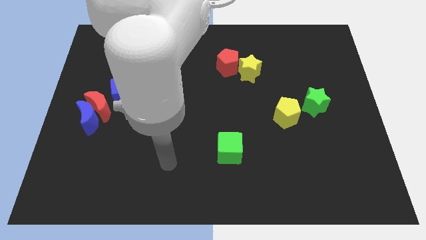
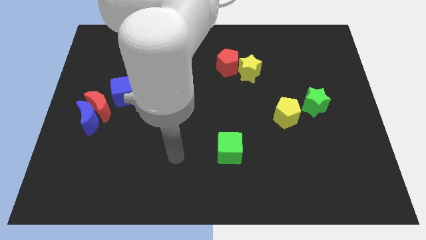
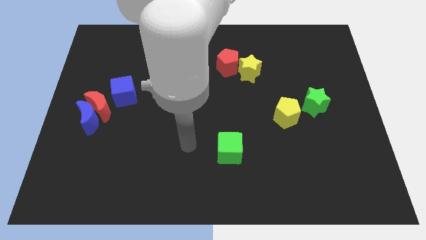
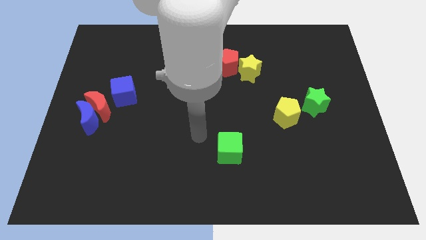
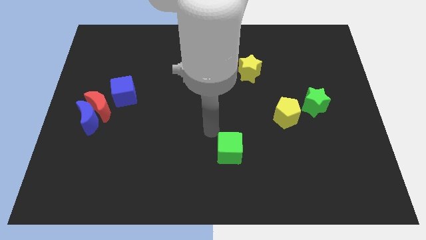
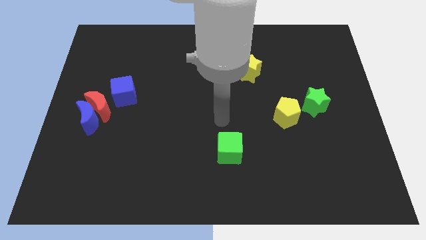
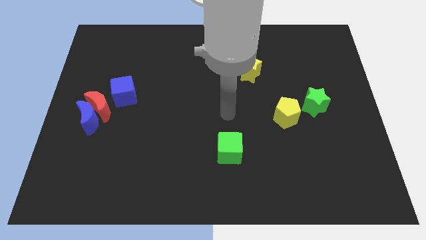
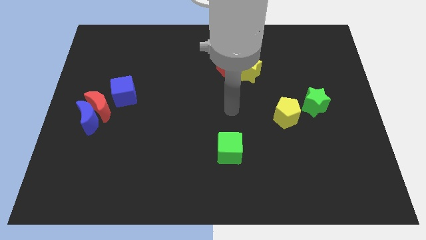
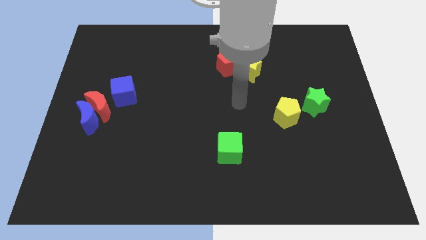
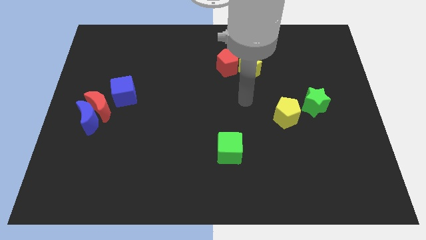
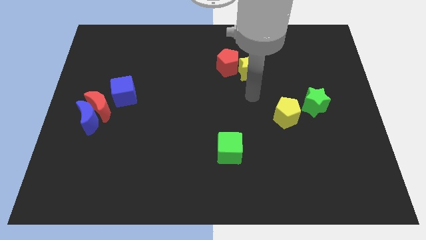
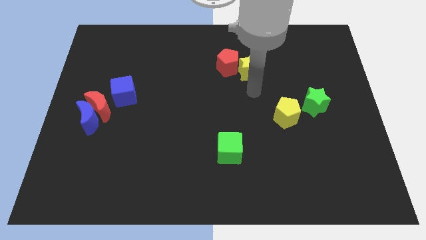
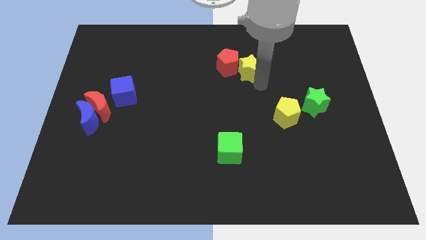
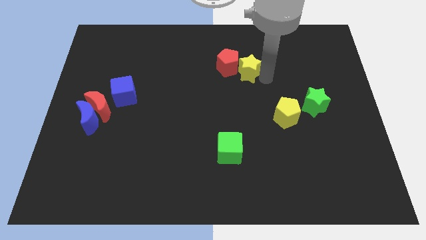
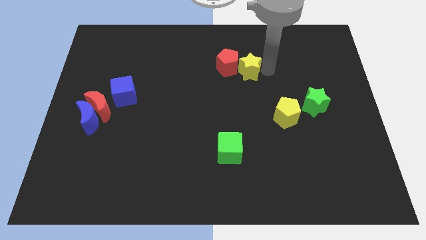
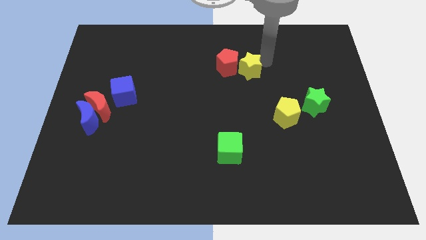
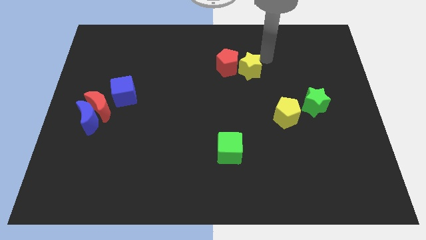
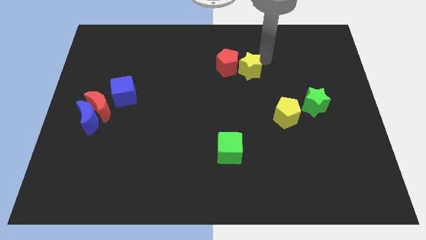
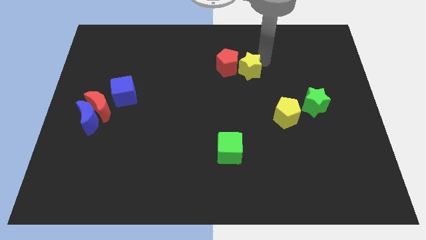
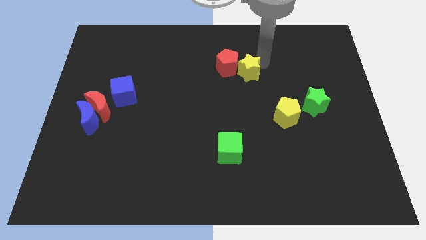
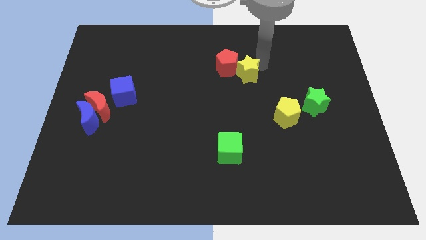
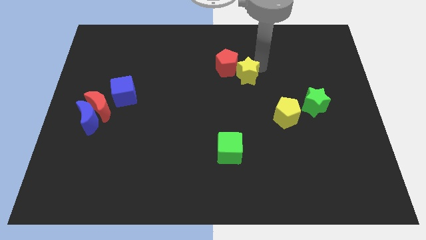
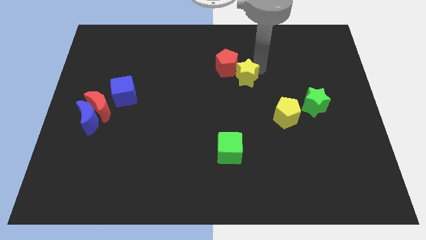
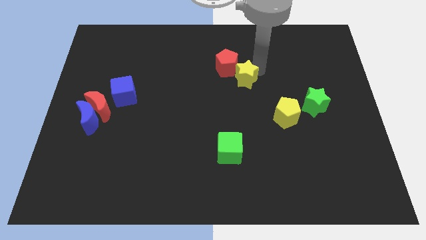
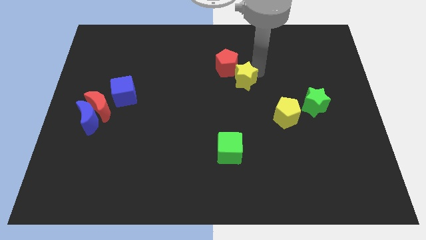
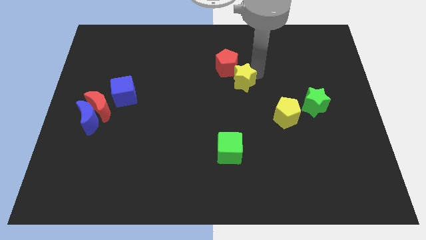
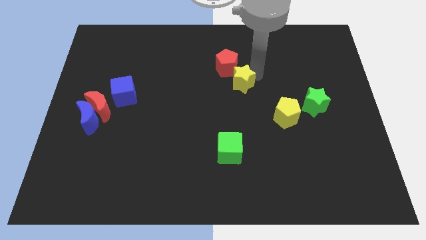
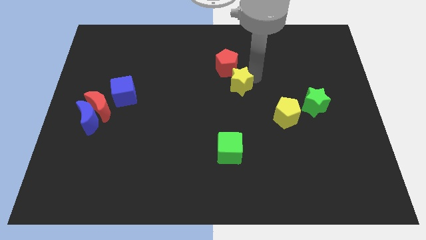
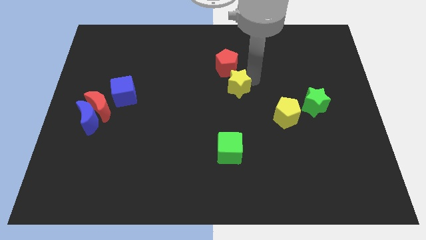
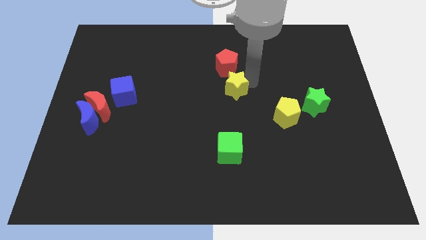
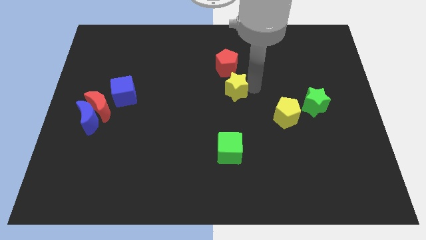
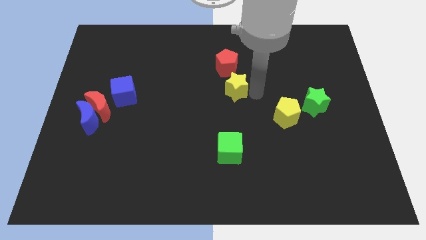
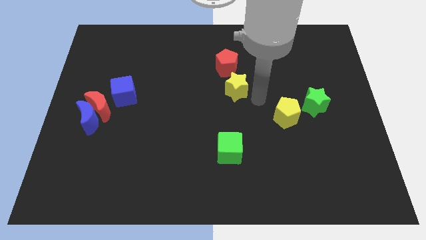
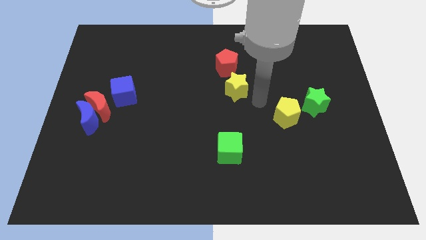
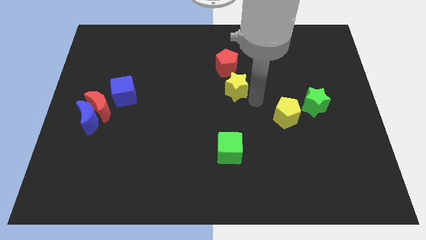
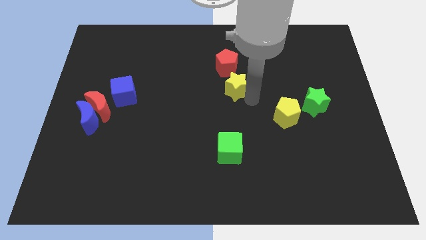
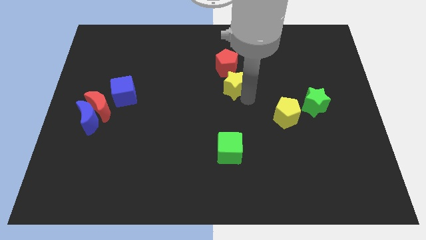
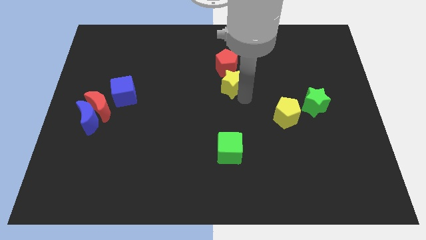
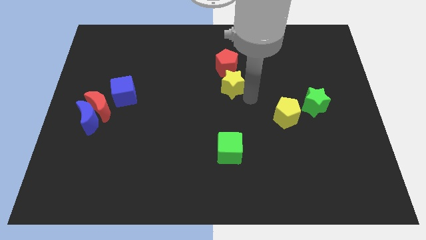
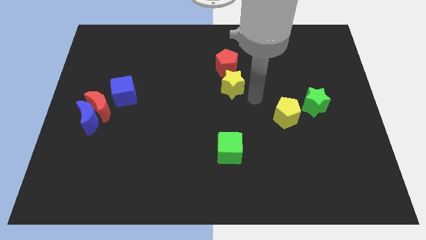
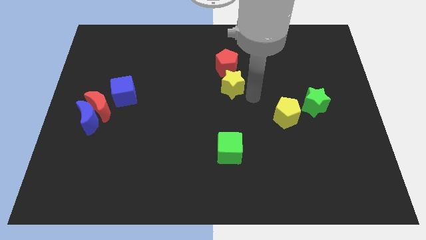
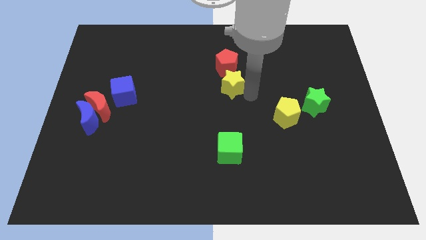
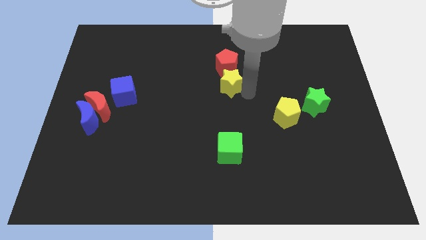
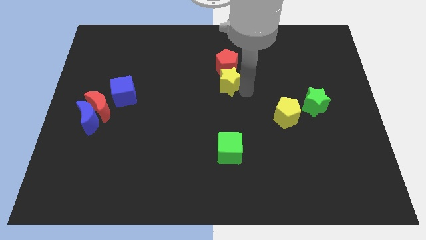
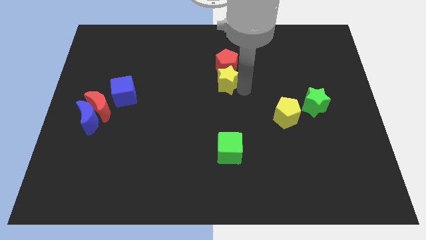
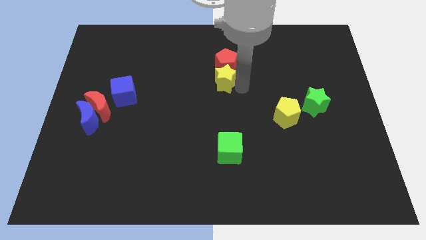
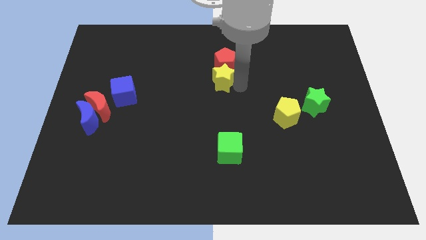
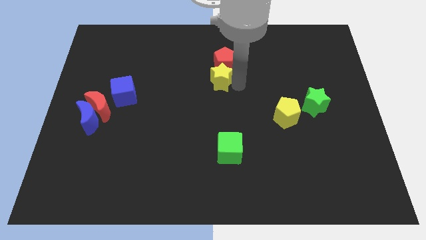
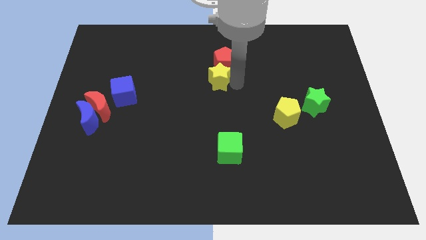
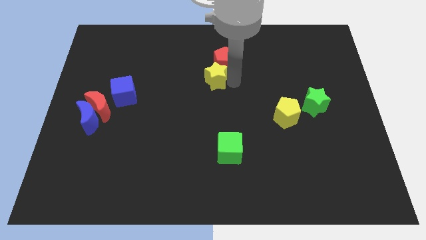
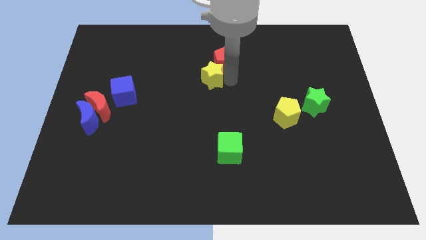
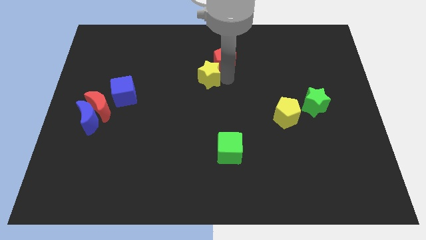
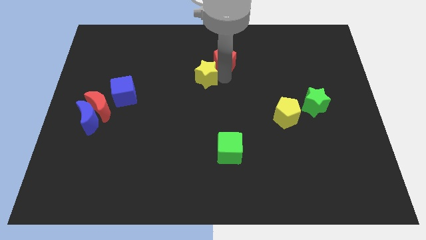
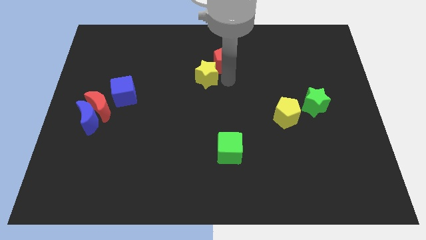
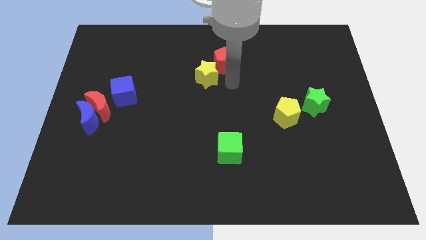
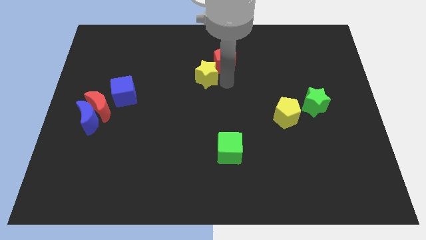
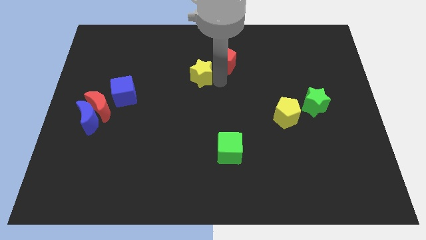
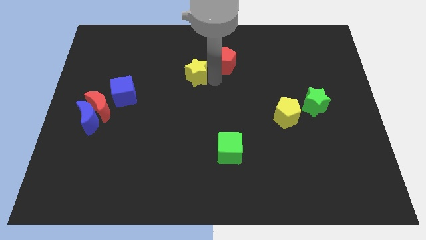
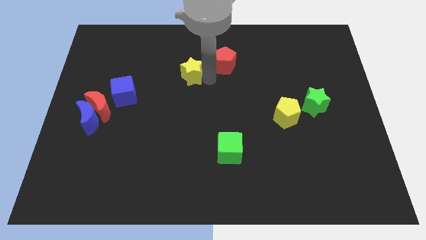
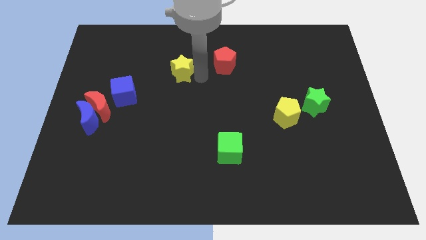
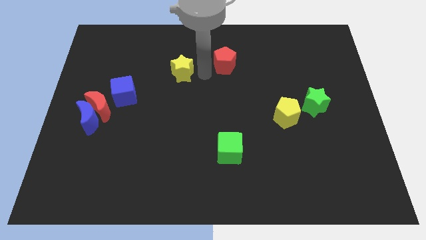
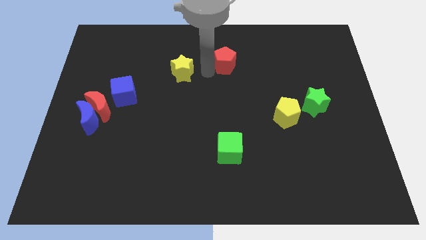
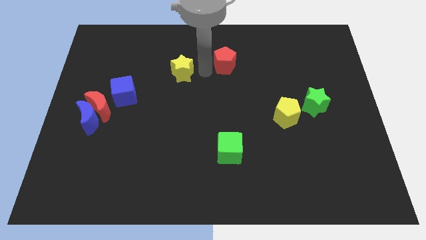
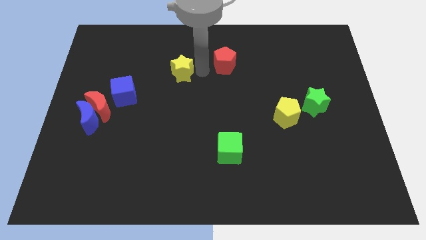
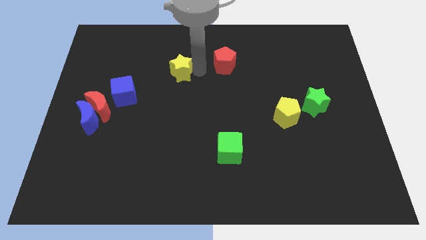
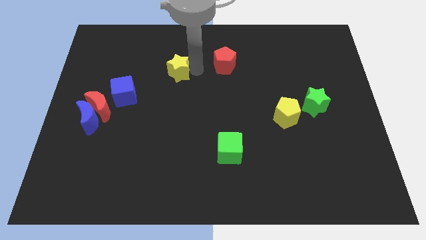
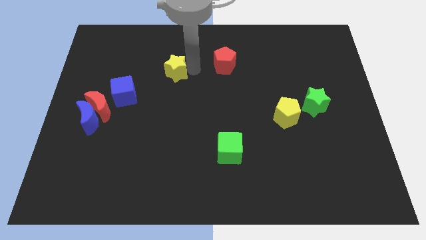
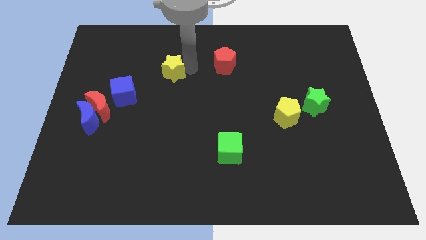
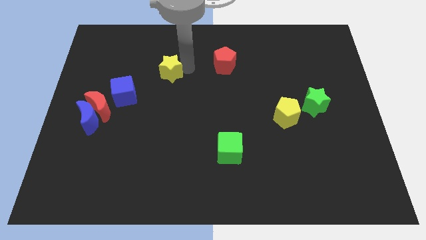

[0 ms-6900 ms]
slide the yellow star to the left

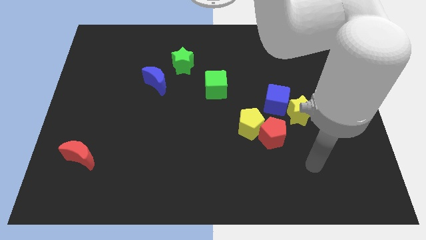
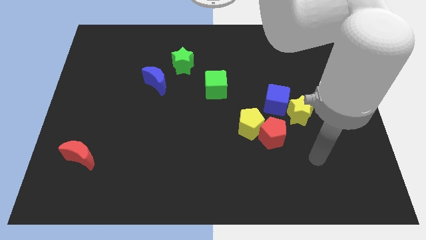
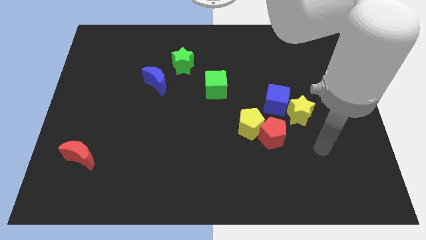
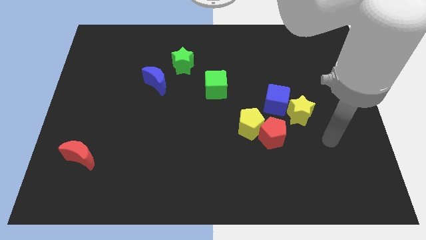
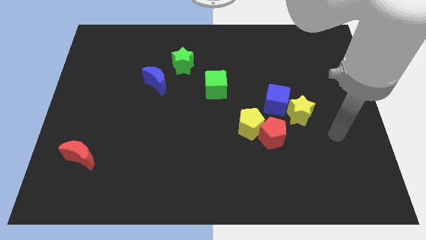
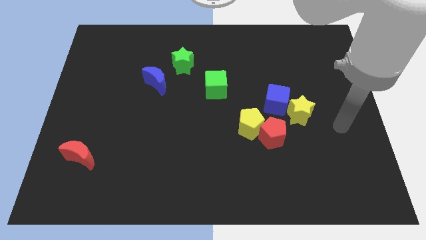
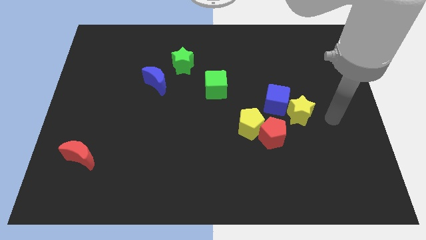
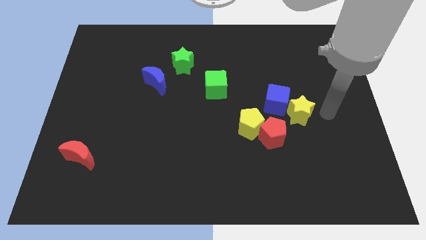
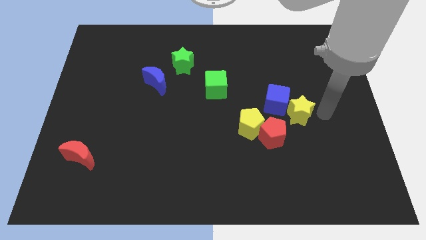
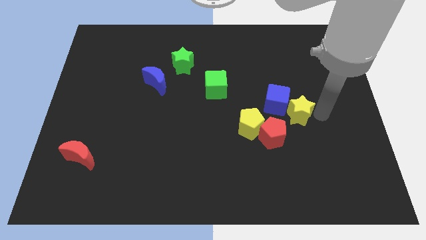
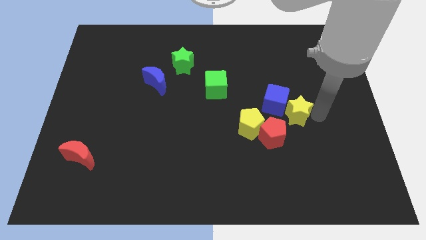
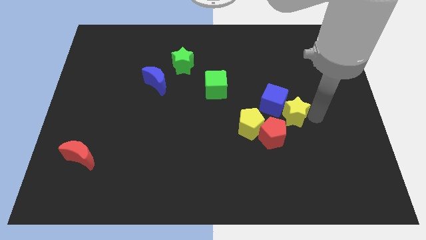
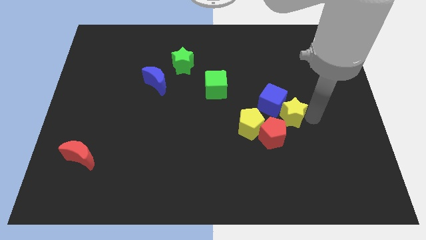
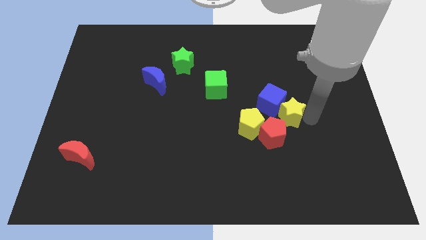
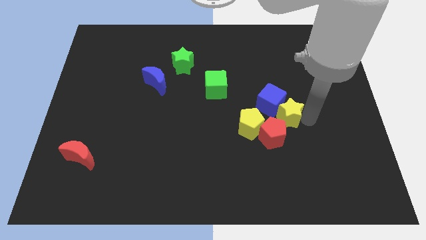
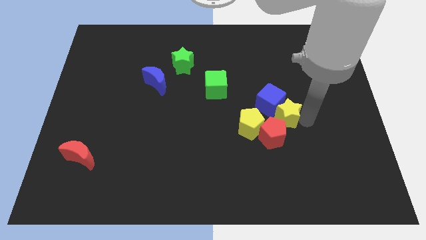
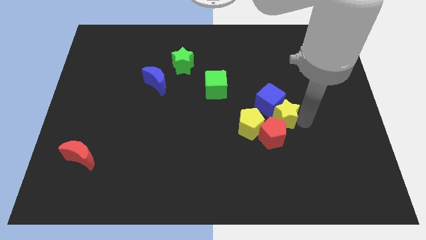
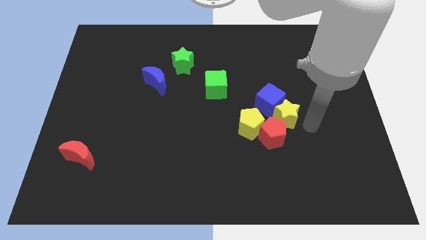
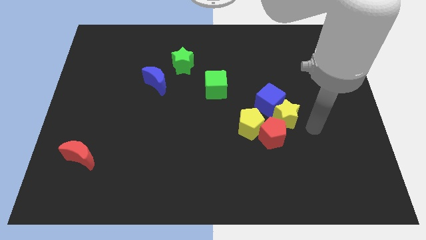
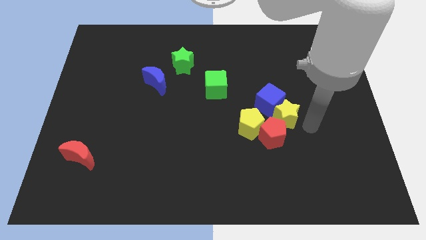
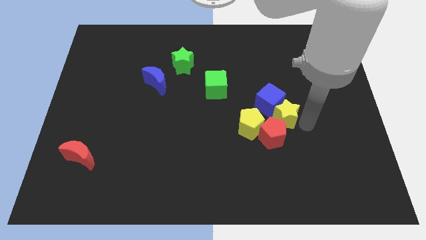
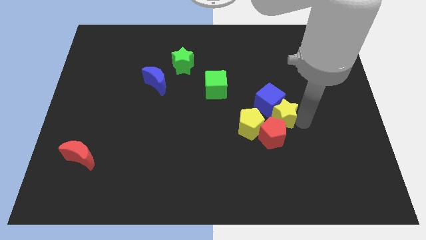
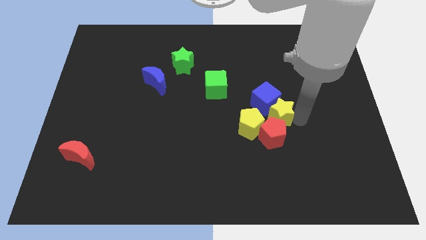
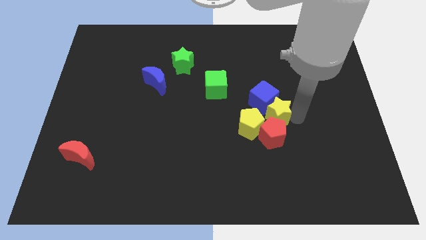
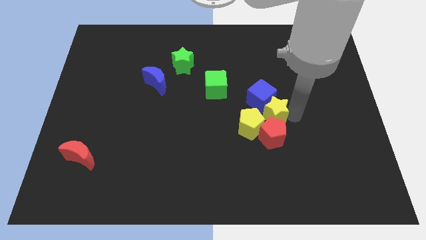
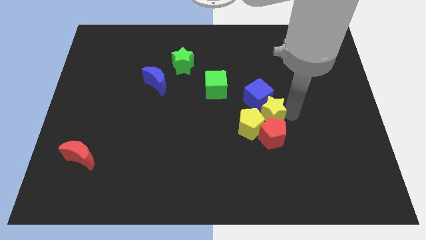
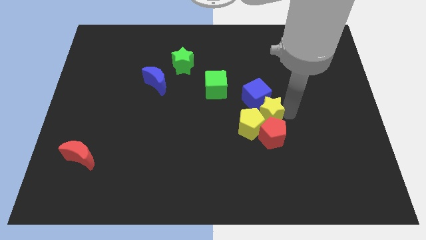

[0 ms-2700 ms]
move the yellow star to the left somewhat
